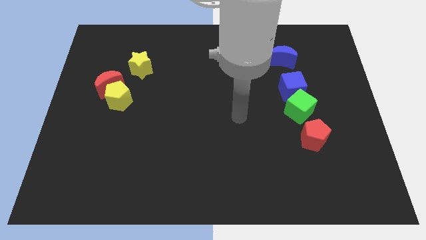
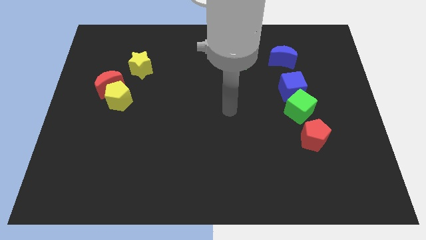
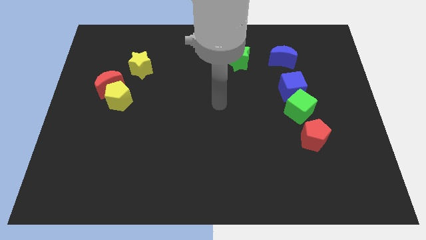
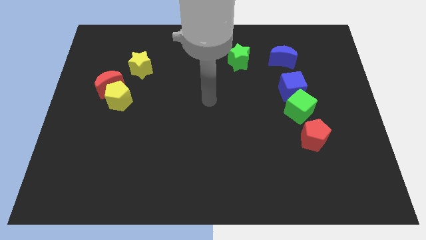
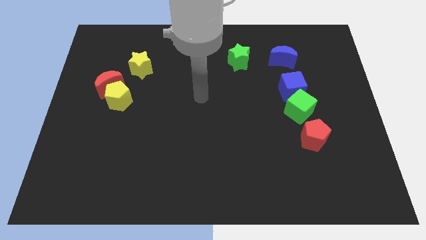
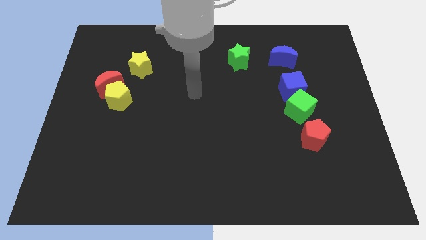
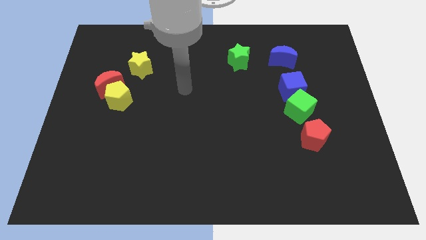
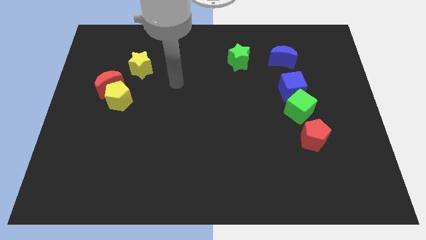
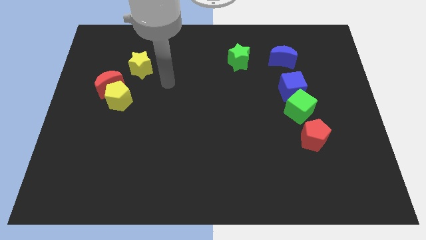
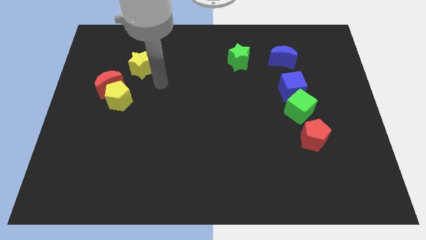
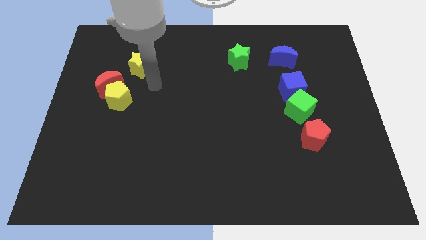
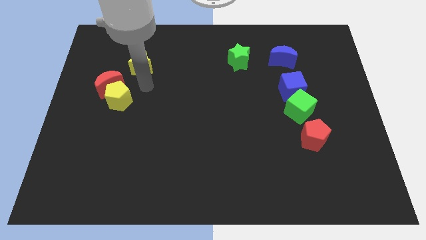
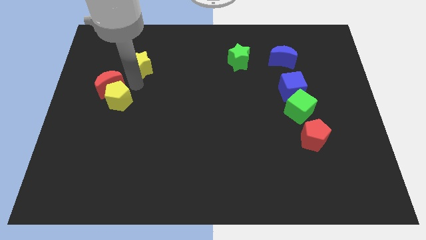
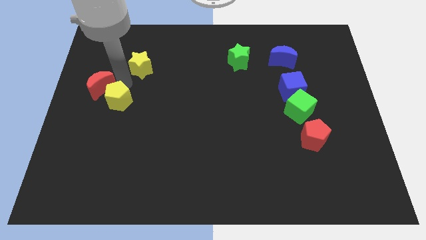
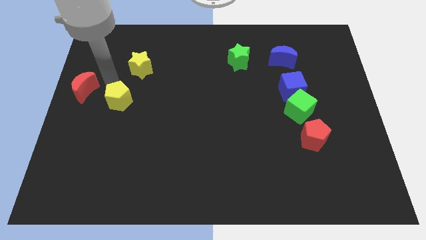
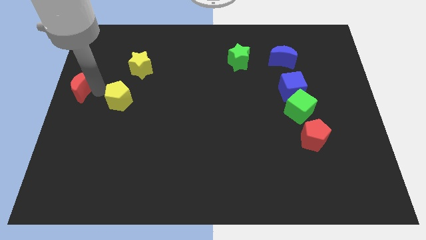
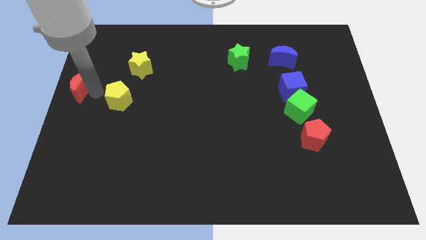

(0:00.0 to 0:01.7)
move the yellow pentagon away from the red moon

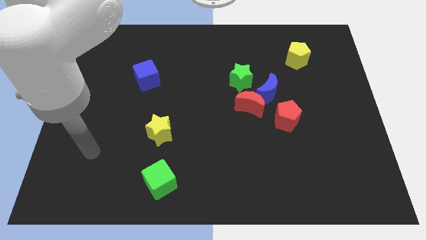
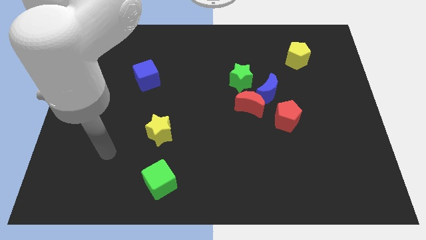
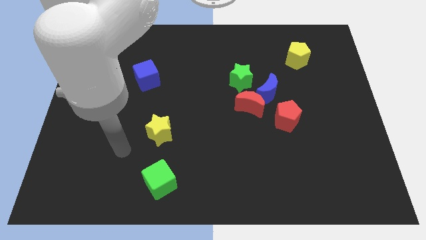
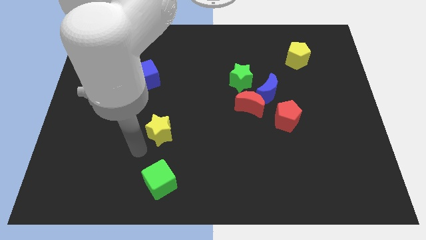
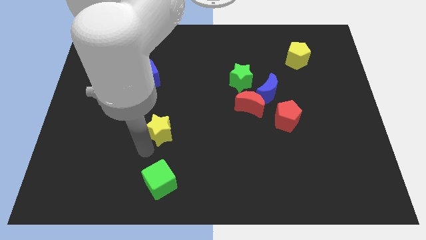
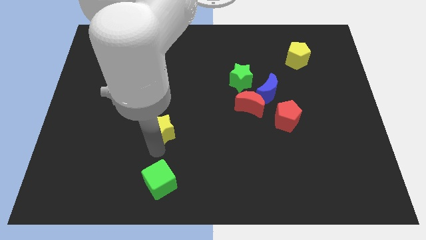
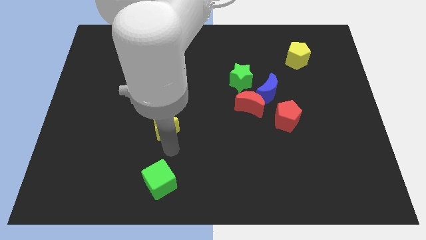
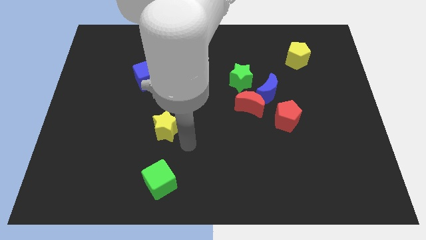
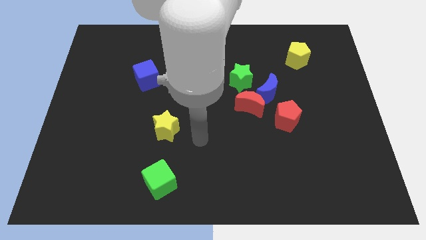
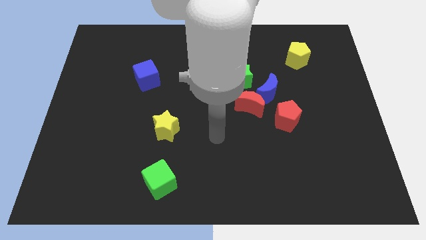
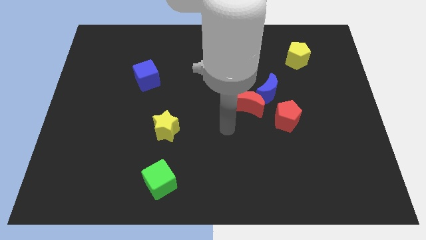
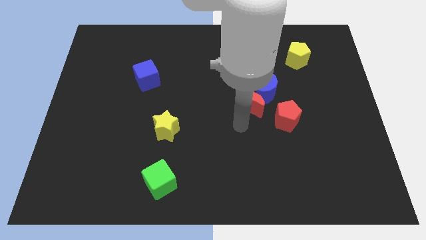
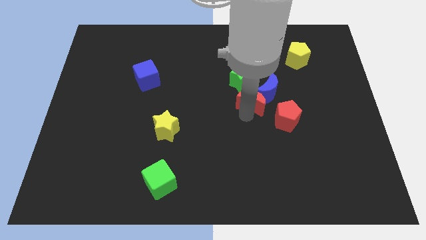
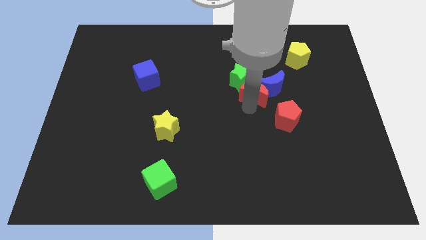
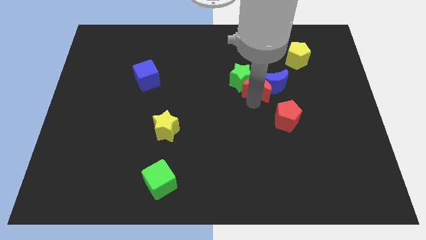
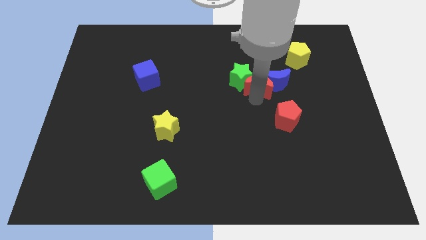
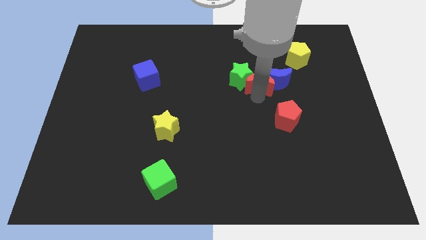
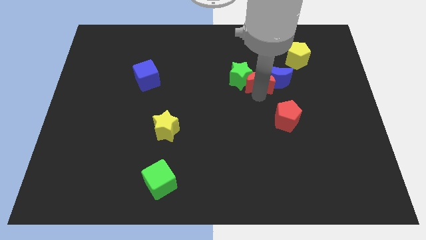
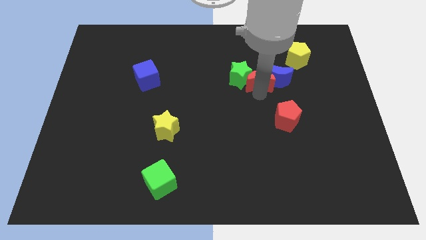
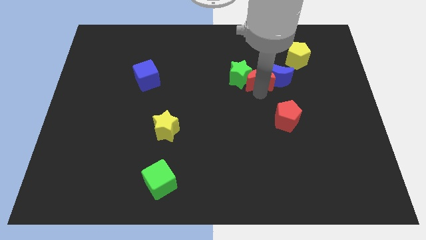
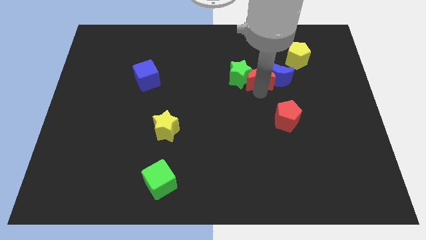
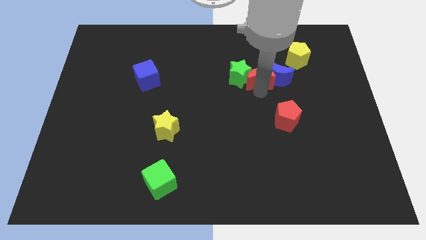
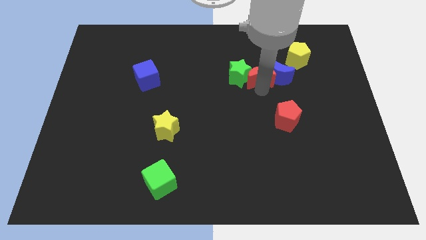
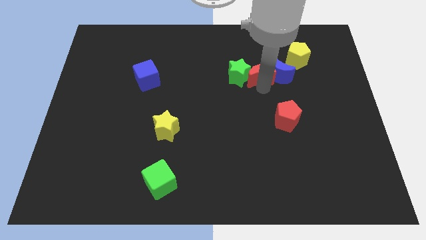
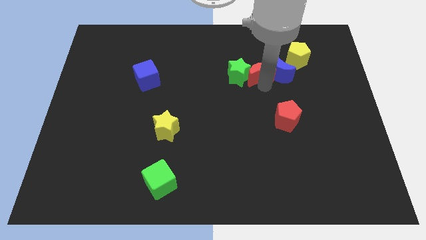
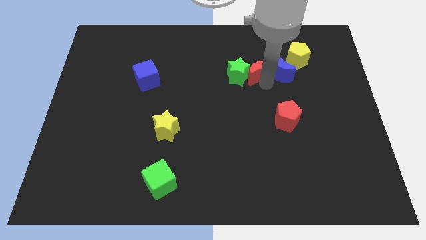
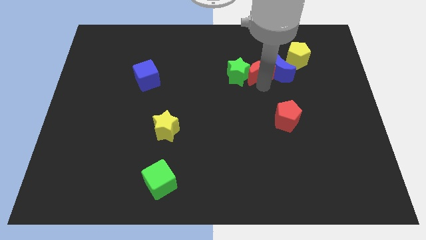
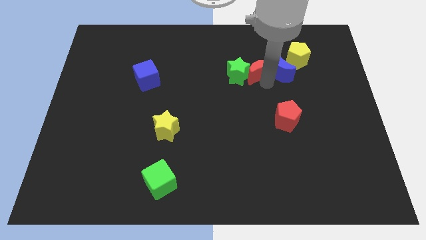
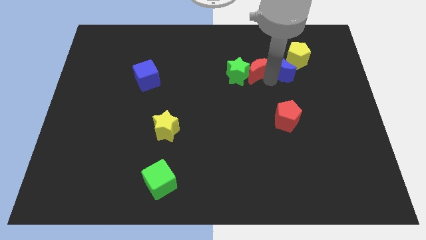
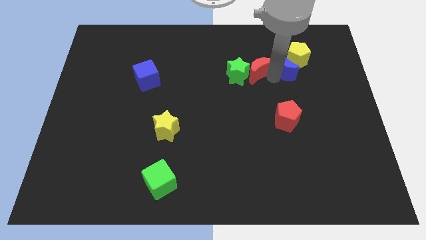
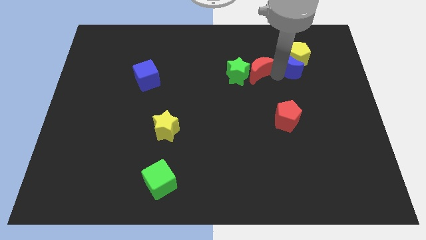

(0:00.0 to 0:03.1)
move the blue moon away from the red moon, green star, and red pentagon

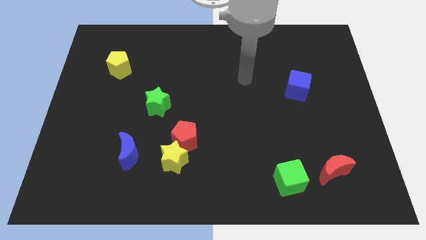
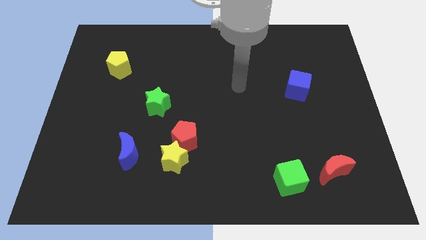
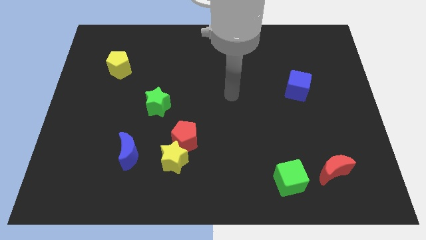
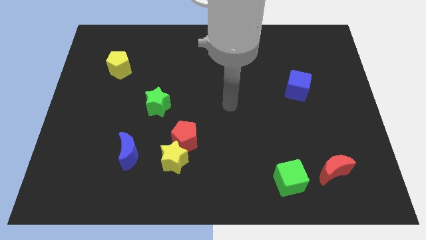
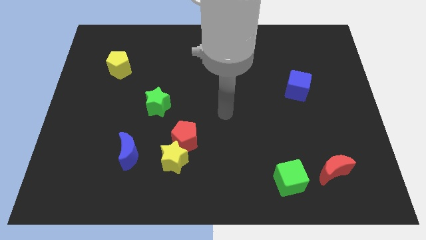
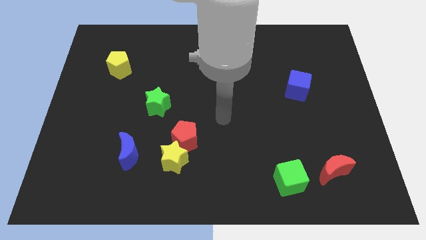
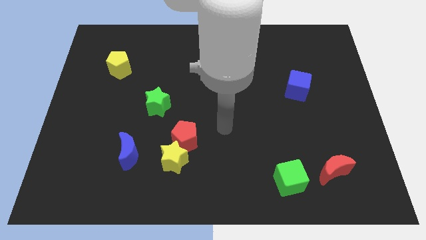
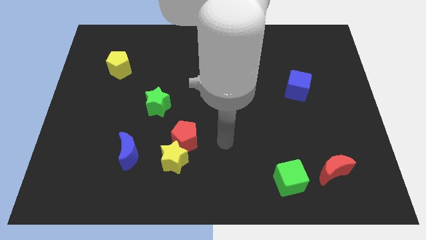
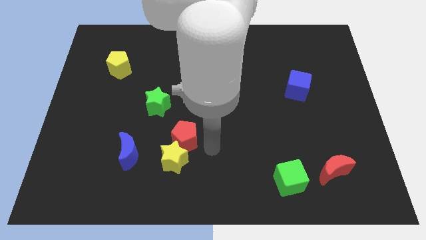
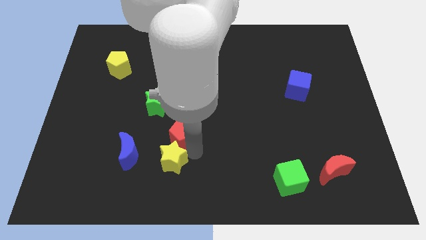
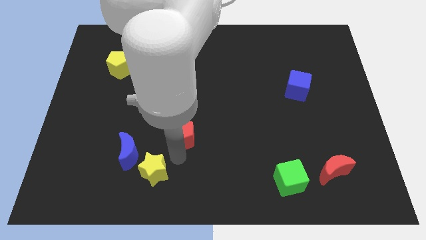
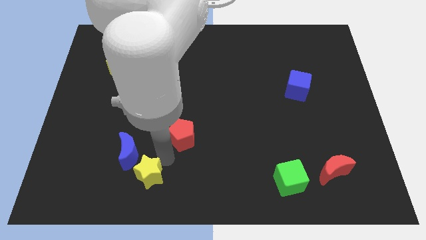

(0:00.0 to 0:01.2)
pull the red pentagon apart from the yellow star

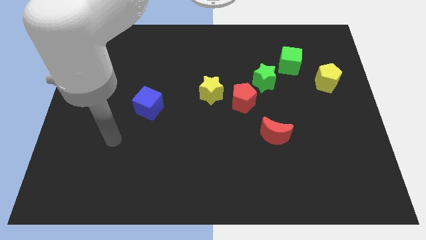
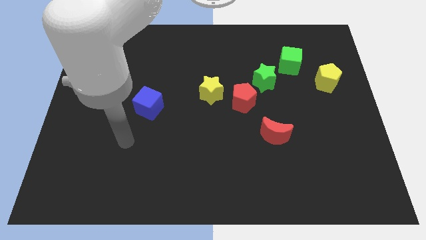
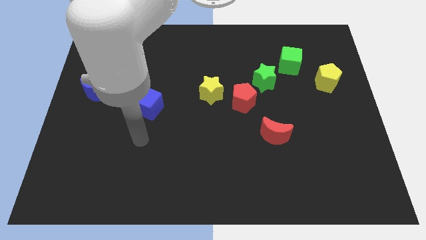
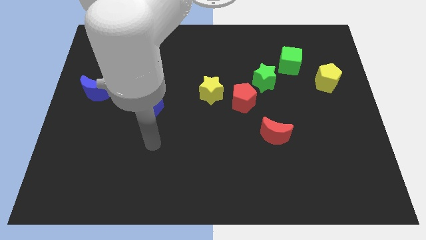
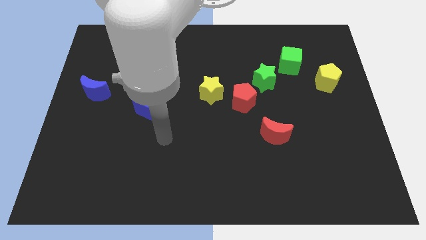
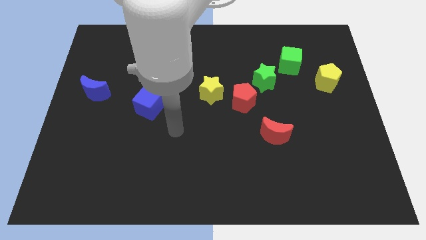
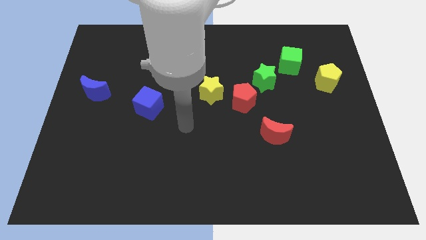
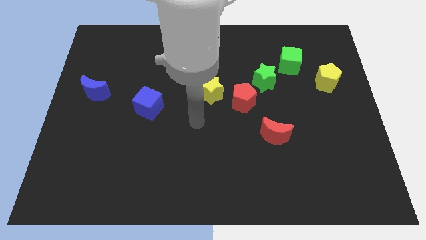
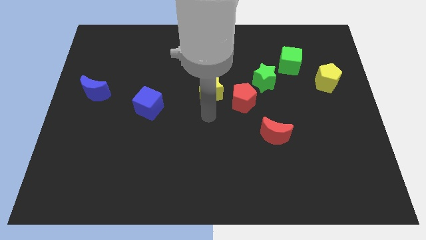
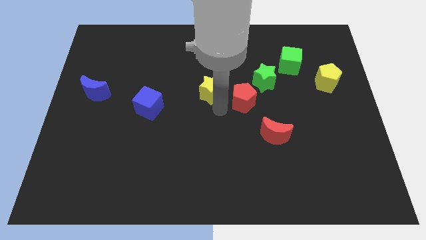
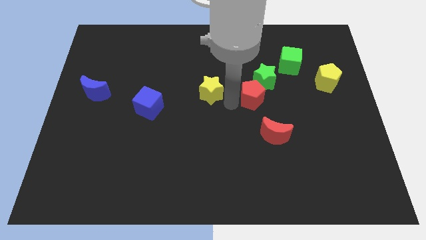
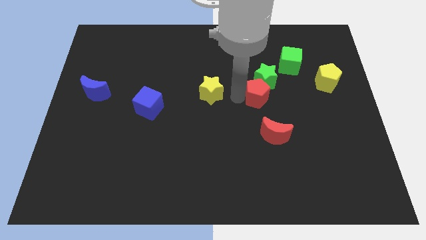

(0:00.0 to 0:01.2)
move the yellow star away from the red pentagon

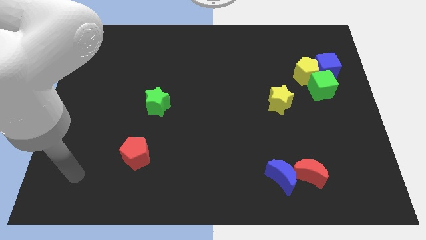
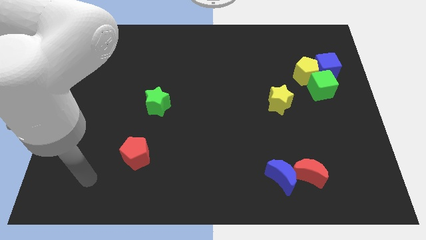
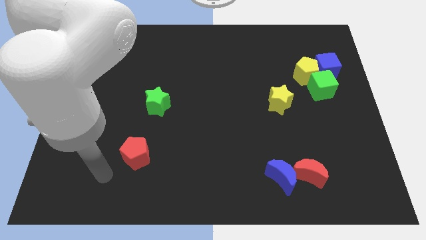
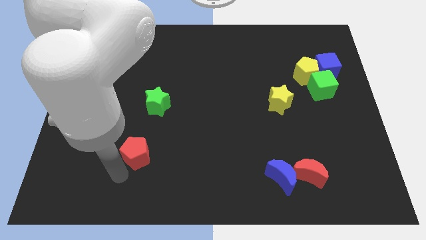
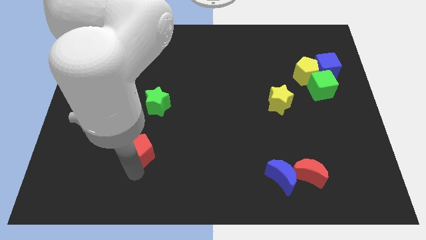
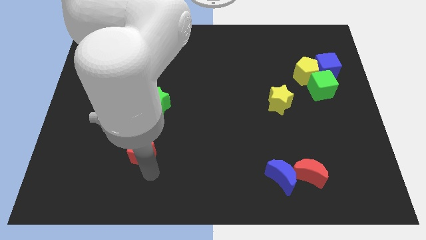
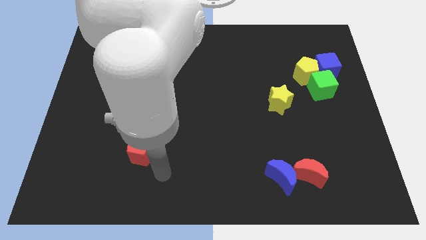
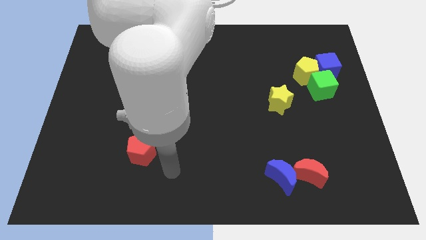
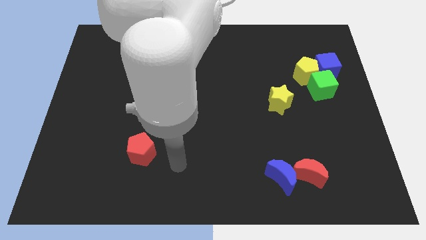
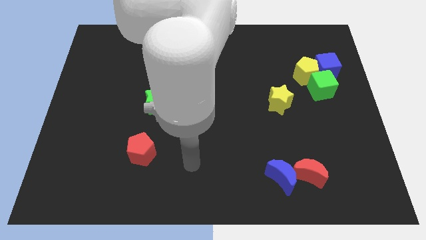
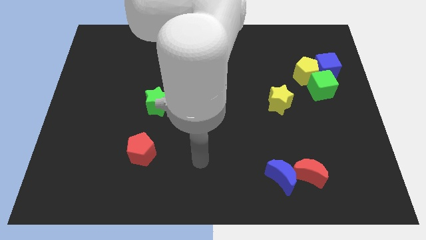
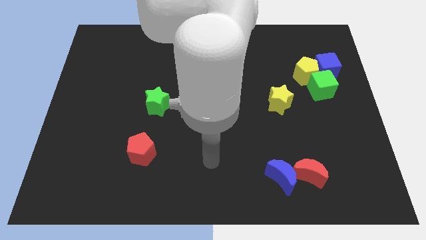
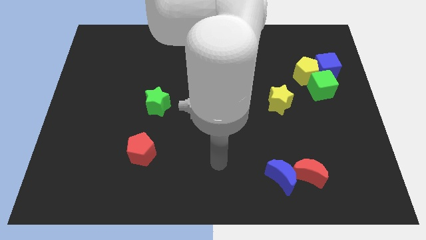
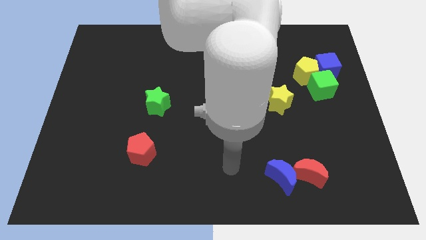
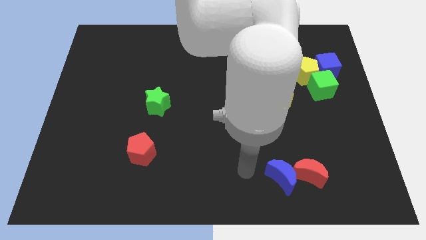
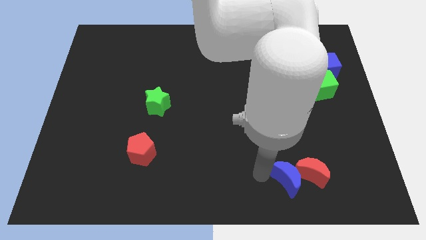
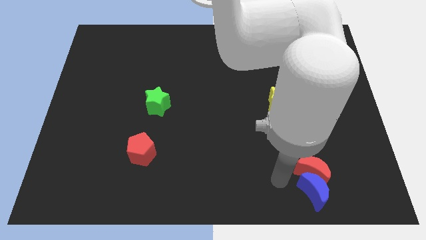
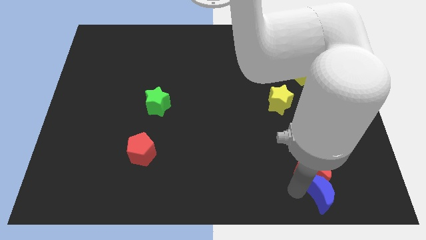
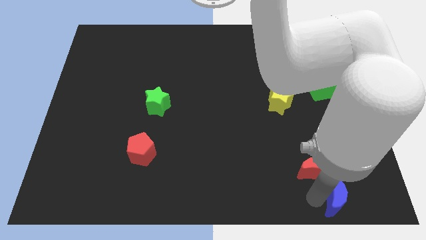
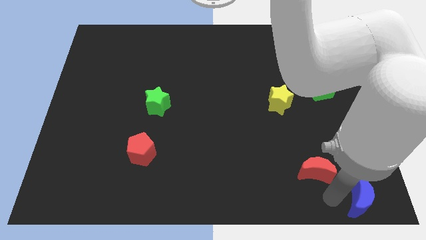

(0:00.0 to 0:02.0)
move the red moon away from the blue moon
